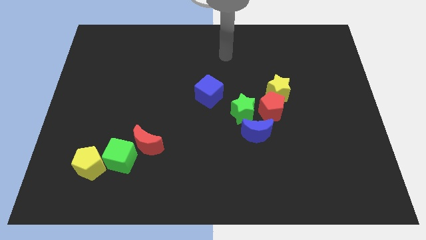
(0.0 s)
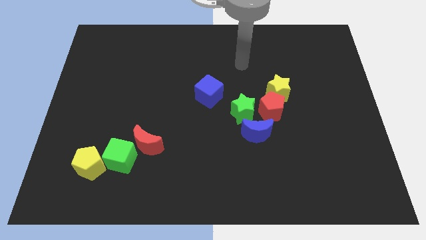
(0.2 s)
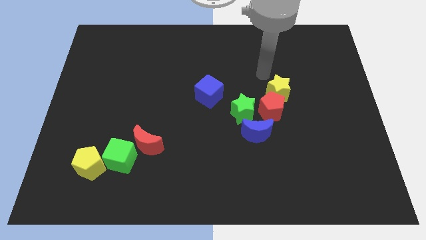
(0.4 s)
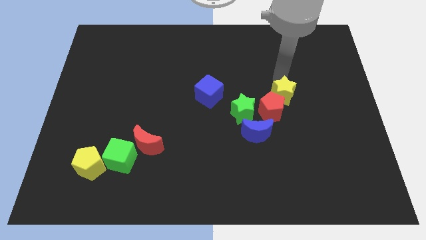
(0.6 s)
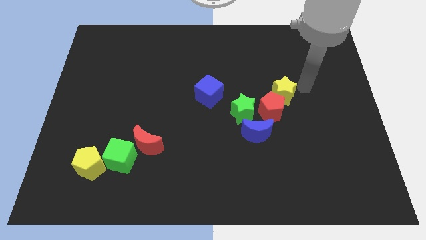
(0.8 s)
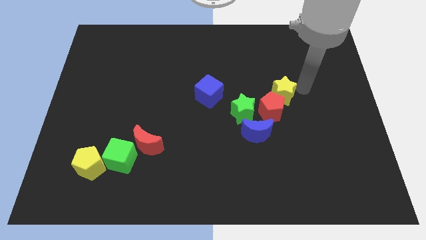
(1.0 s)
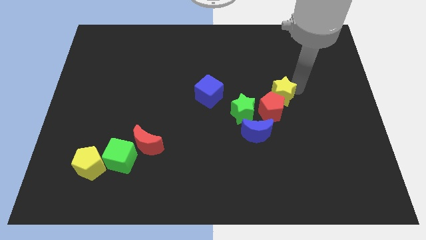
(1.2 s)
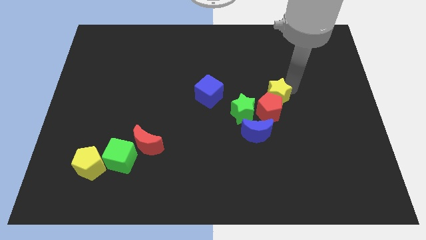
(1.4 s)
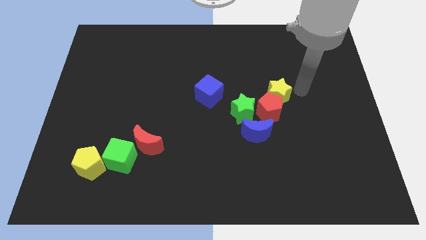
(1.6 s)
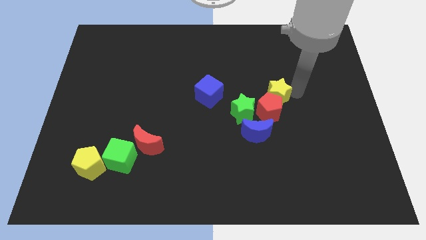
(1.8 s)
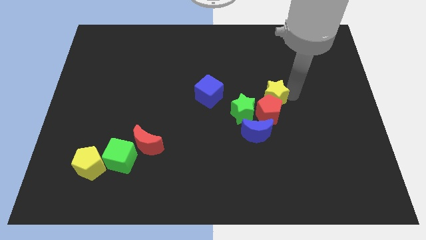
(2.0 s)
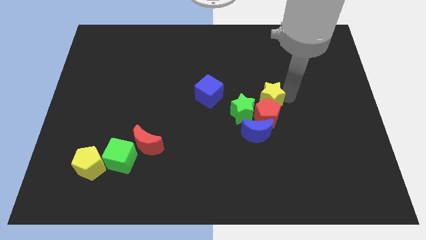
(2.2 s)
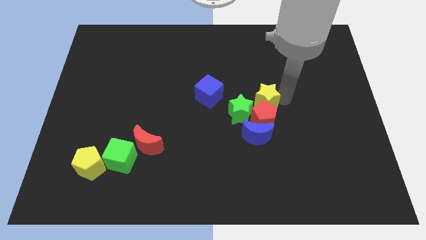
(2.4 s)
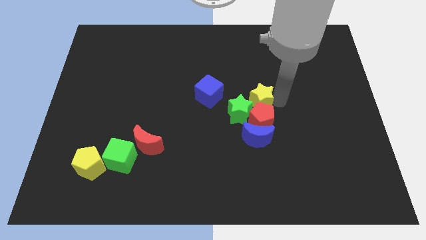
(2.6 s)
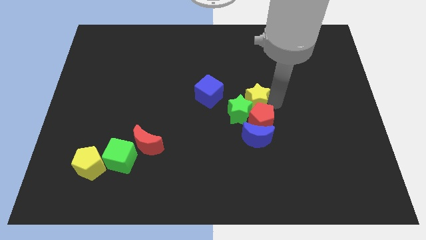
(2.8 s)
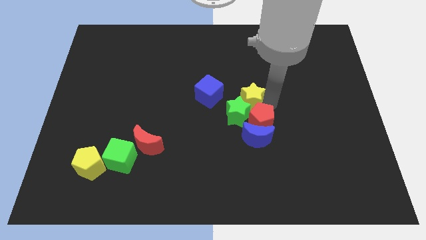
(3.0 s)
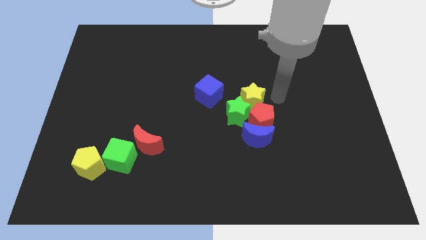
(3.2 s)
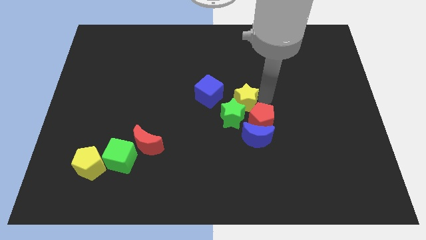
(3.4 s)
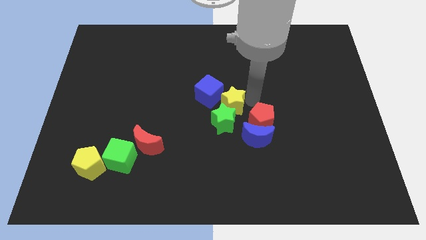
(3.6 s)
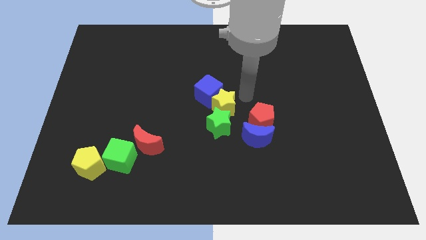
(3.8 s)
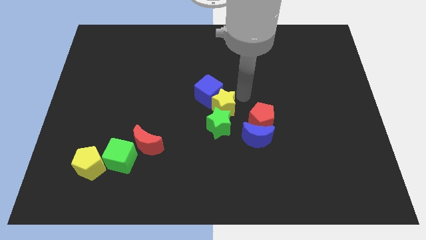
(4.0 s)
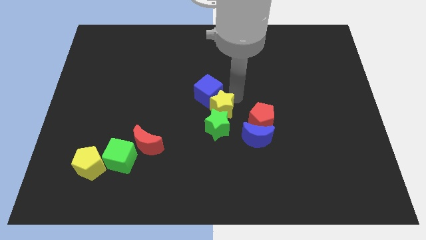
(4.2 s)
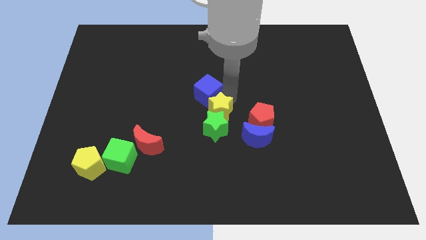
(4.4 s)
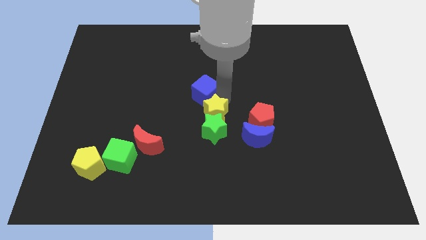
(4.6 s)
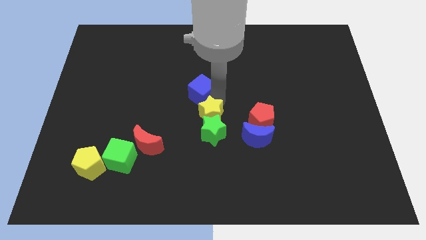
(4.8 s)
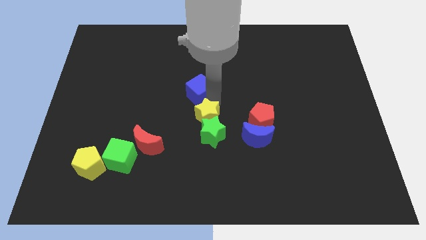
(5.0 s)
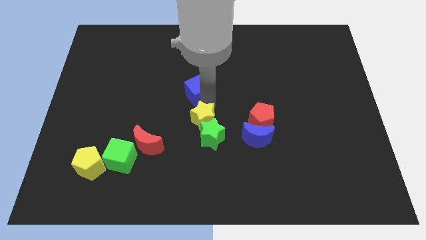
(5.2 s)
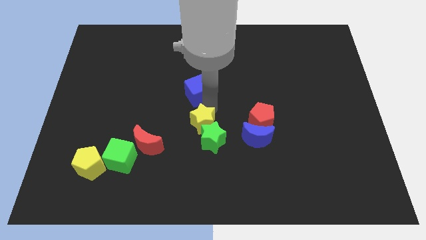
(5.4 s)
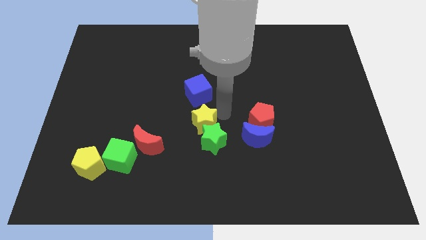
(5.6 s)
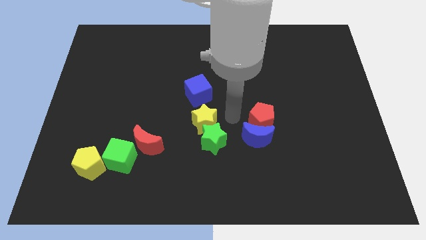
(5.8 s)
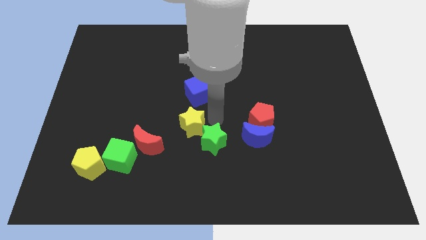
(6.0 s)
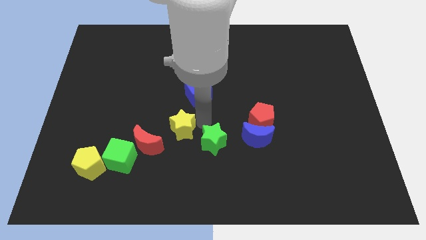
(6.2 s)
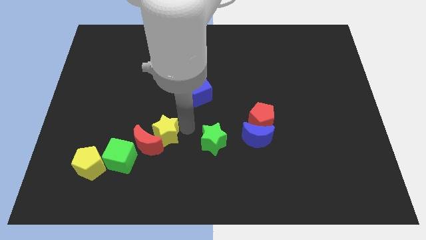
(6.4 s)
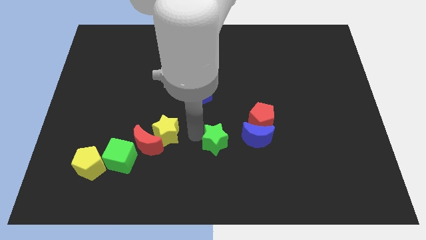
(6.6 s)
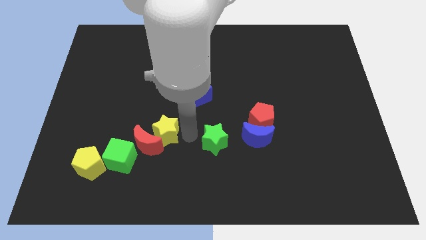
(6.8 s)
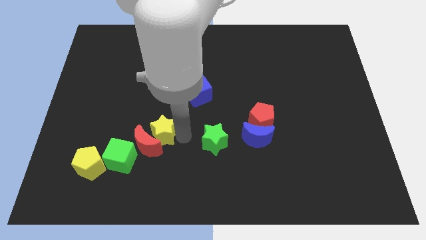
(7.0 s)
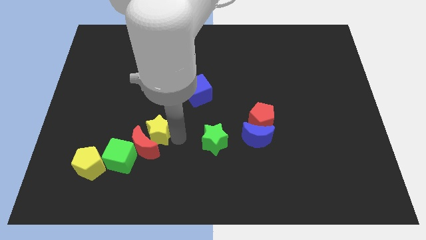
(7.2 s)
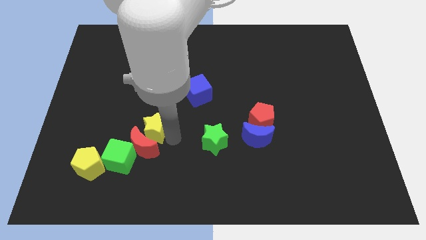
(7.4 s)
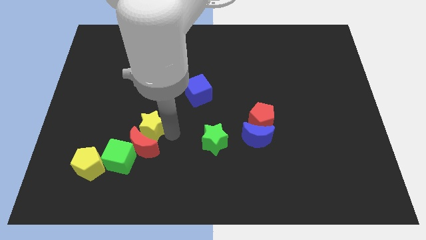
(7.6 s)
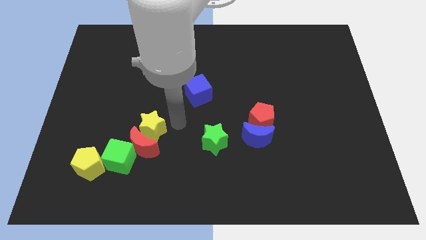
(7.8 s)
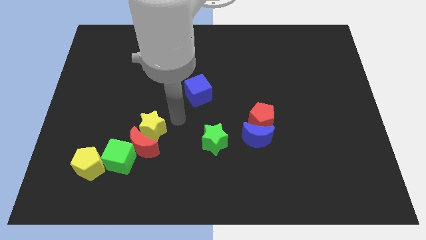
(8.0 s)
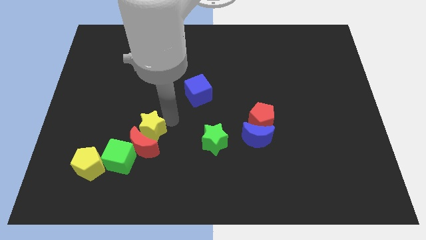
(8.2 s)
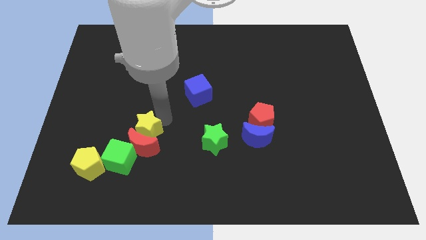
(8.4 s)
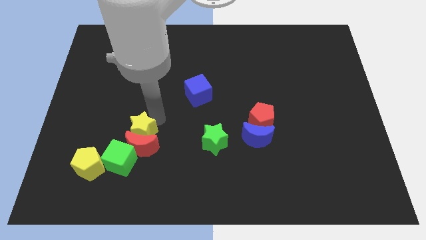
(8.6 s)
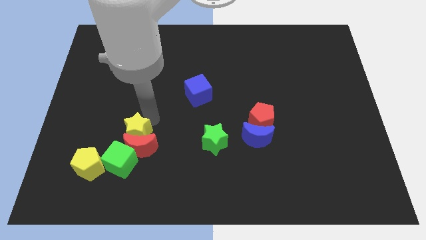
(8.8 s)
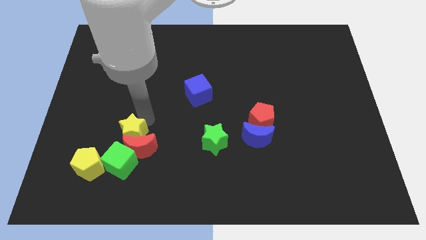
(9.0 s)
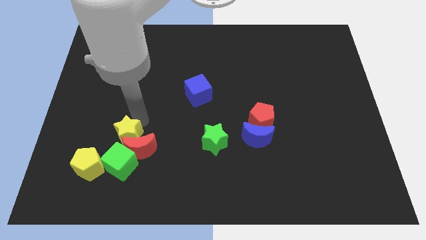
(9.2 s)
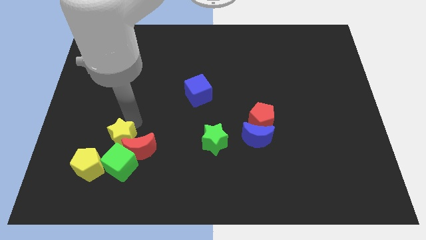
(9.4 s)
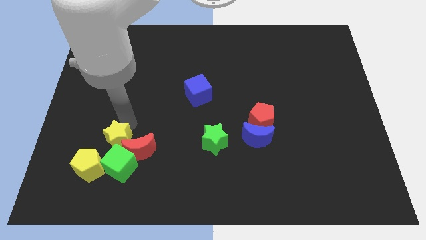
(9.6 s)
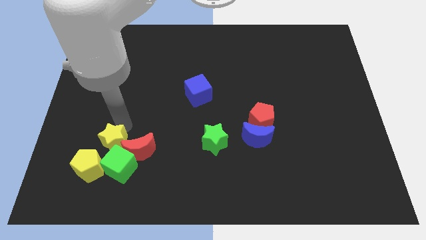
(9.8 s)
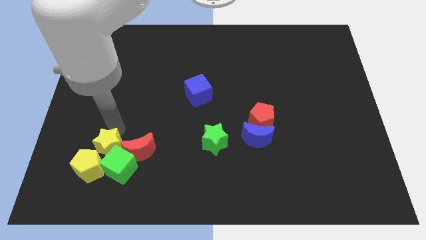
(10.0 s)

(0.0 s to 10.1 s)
move the yellow star next to the yellow pentagon

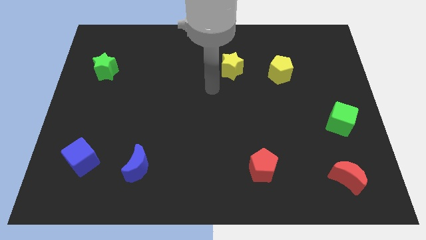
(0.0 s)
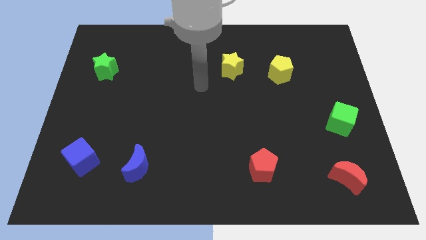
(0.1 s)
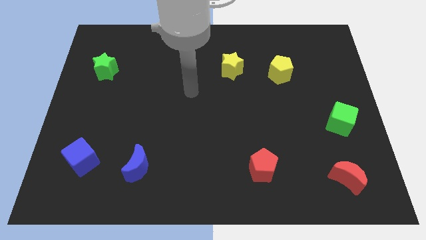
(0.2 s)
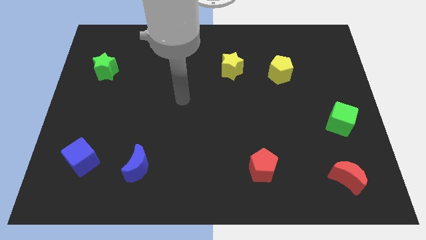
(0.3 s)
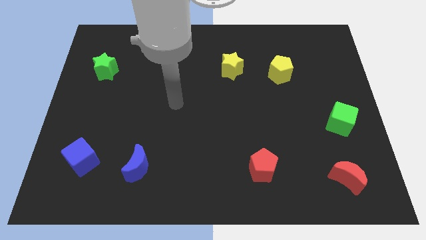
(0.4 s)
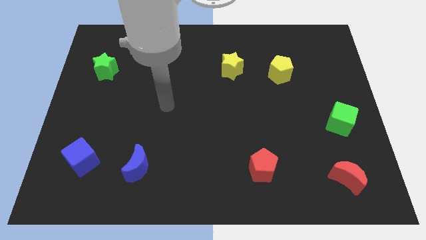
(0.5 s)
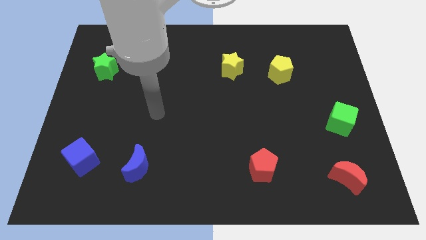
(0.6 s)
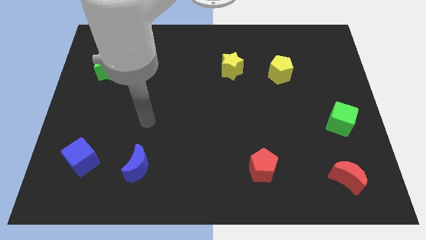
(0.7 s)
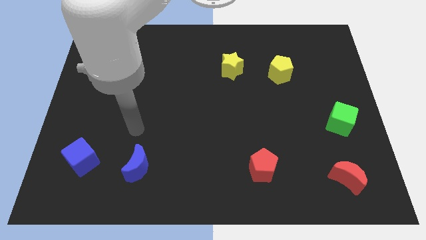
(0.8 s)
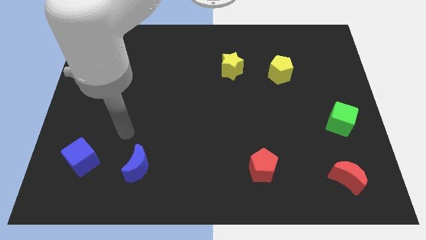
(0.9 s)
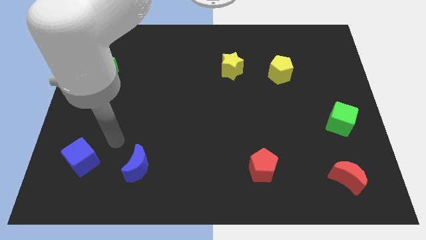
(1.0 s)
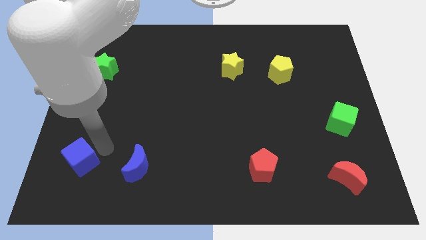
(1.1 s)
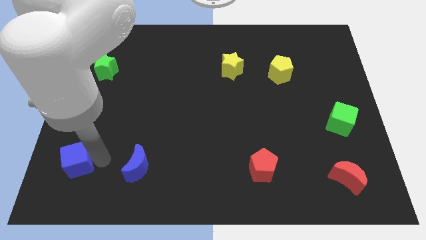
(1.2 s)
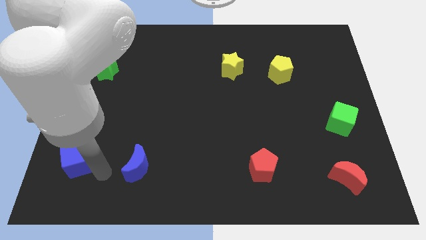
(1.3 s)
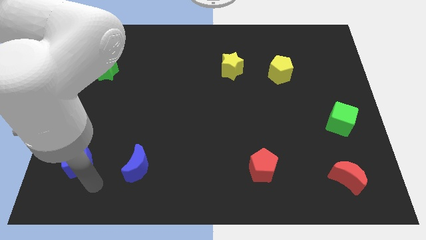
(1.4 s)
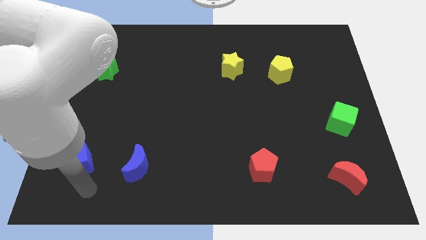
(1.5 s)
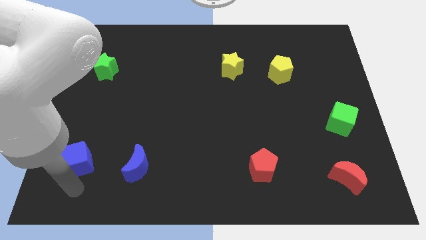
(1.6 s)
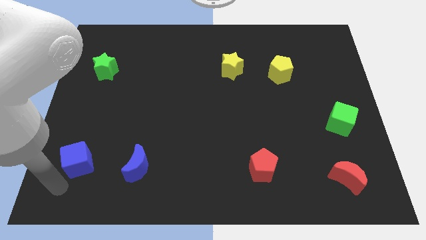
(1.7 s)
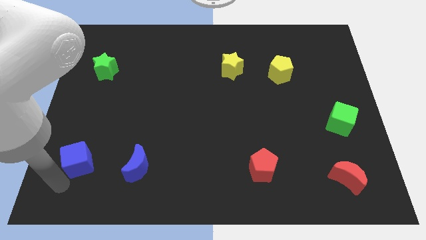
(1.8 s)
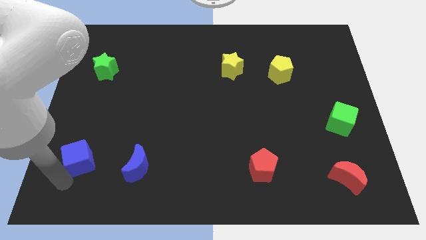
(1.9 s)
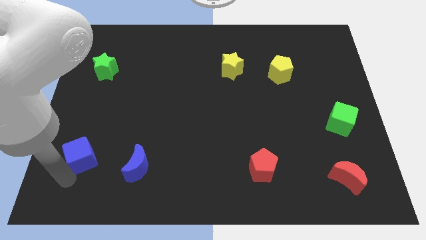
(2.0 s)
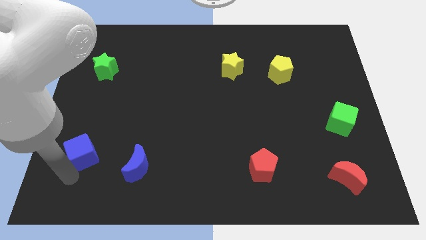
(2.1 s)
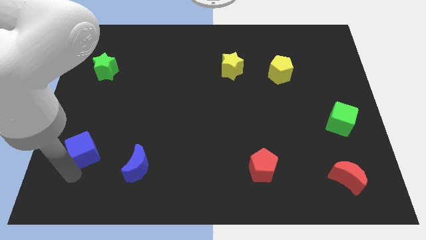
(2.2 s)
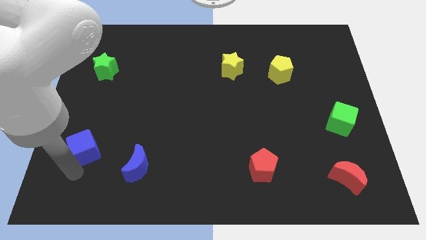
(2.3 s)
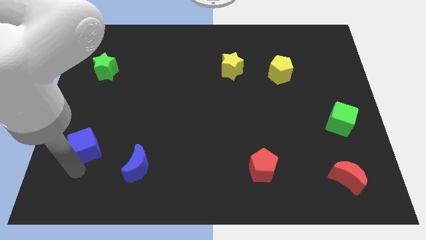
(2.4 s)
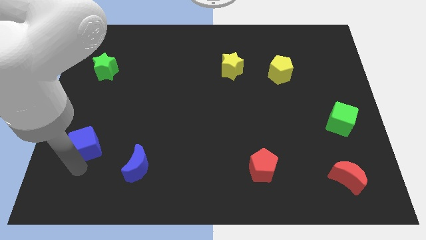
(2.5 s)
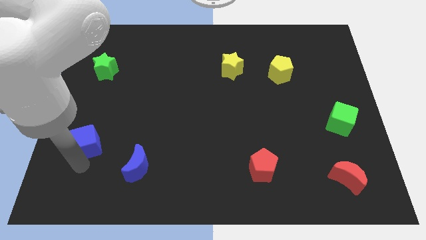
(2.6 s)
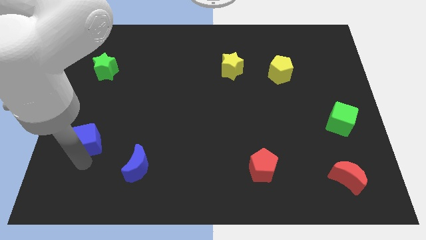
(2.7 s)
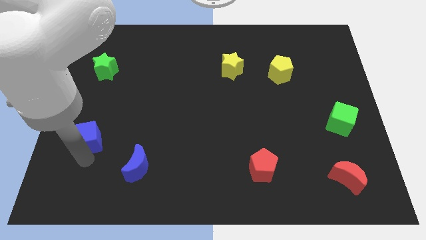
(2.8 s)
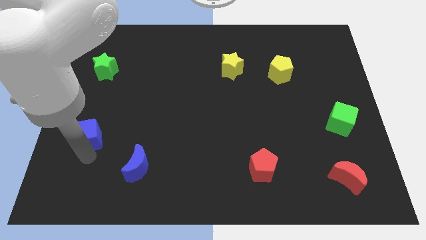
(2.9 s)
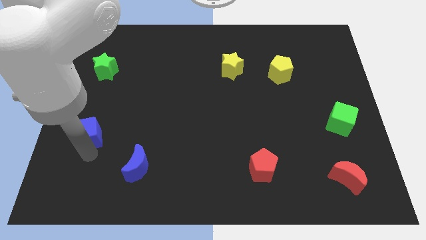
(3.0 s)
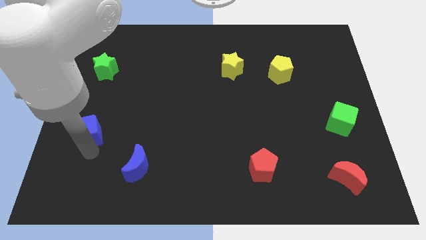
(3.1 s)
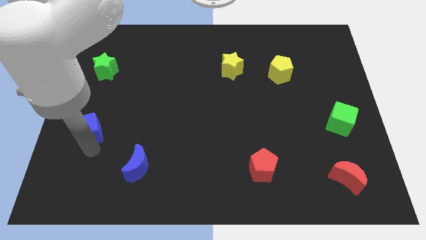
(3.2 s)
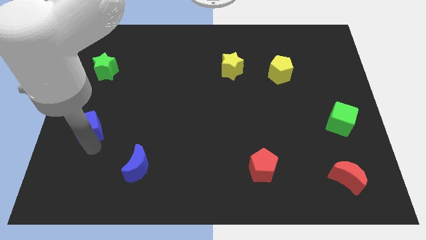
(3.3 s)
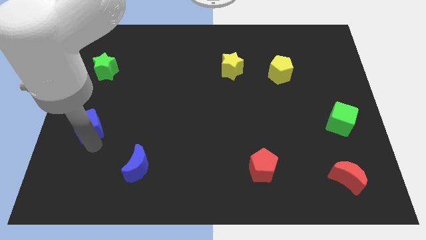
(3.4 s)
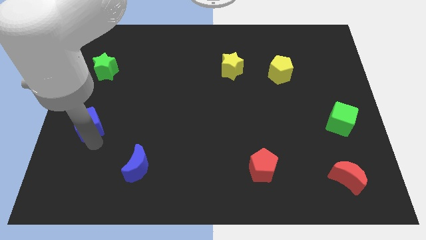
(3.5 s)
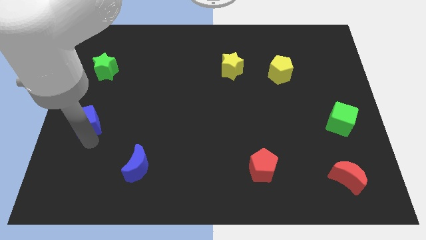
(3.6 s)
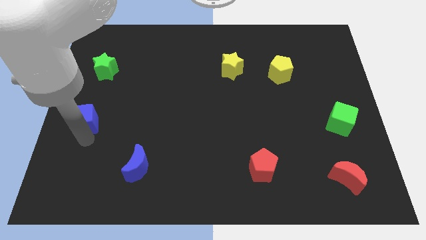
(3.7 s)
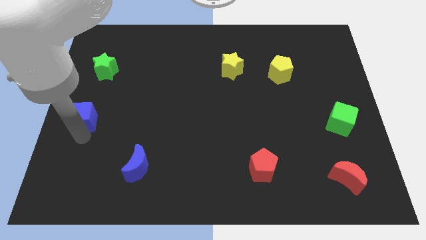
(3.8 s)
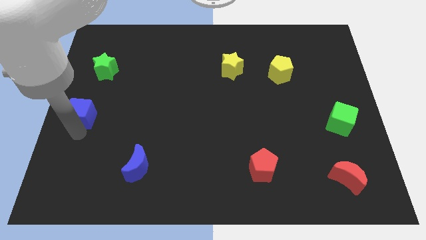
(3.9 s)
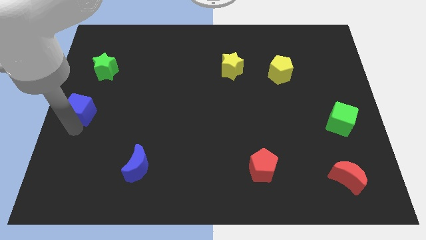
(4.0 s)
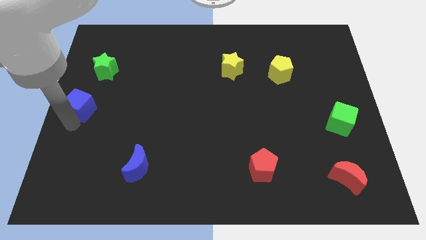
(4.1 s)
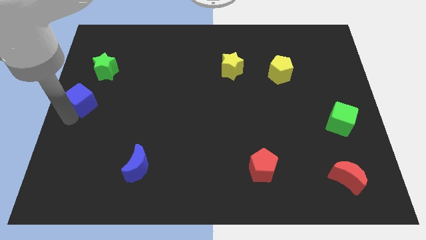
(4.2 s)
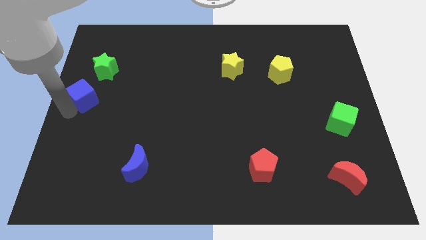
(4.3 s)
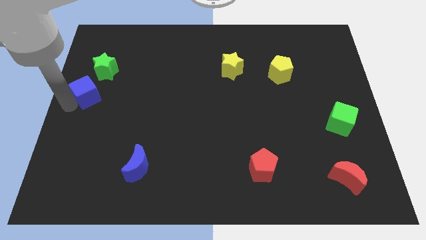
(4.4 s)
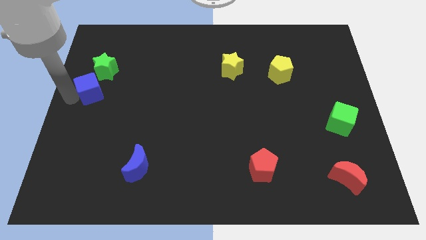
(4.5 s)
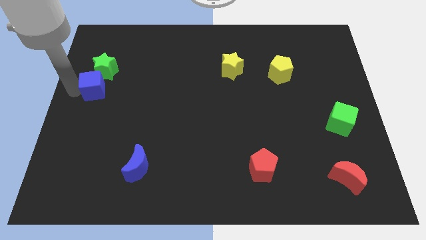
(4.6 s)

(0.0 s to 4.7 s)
move the blue cube towards the green star
